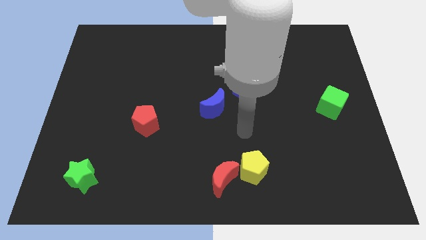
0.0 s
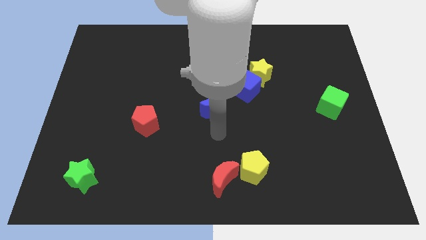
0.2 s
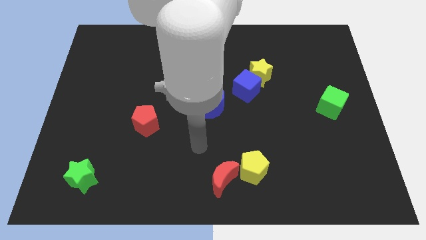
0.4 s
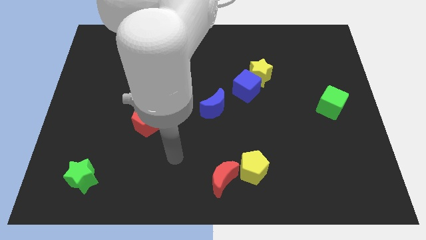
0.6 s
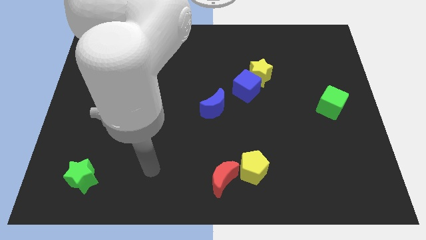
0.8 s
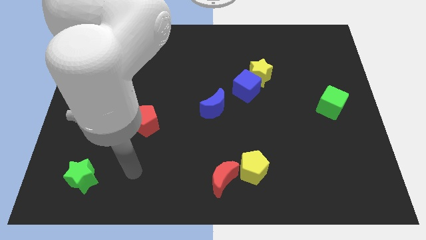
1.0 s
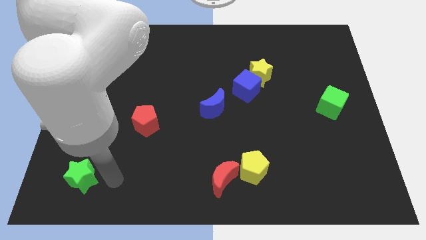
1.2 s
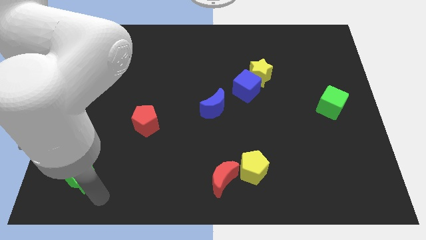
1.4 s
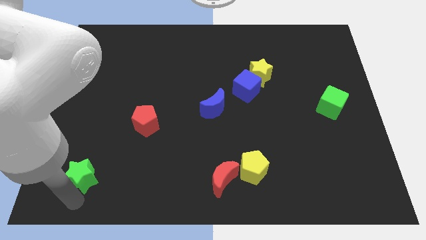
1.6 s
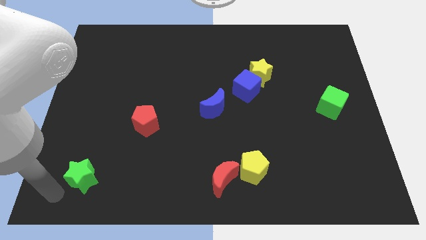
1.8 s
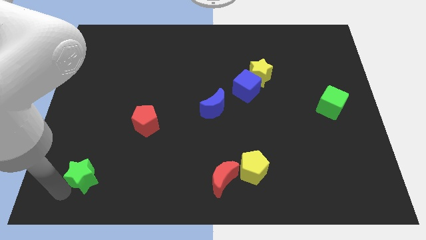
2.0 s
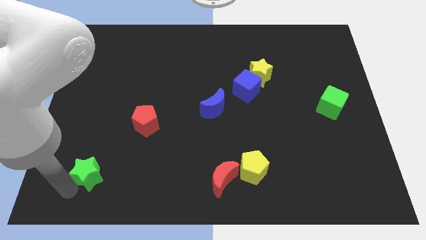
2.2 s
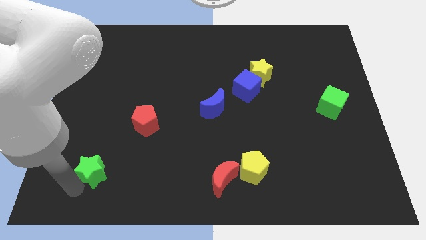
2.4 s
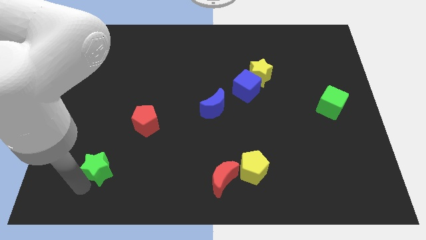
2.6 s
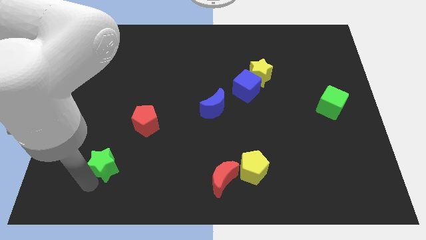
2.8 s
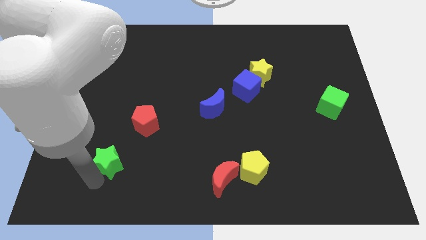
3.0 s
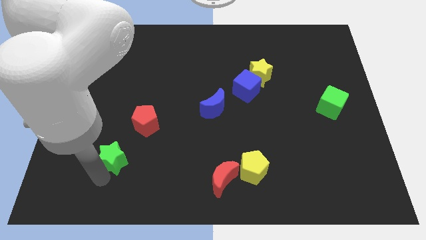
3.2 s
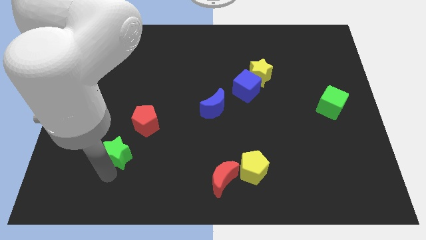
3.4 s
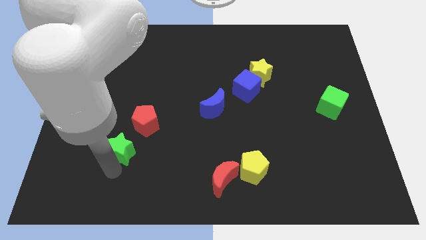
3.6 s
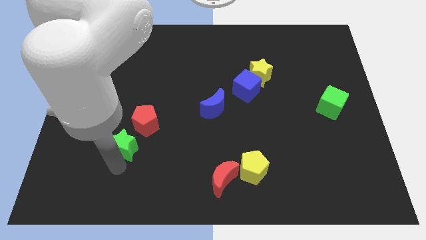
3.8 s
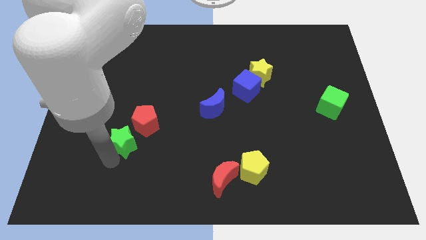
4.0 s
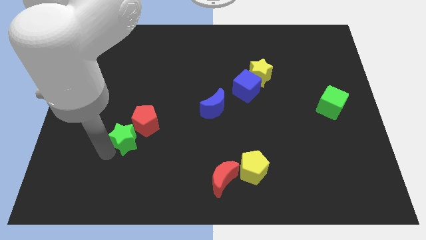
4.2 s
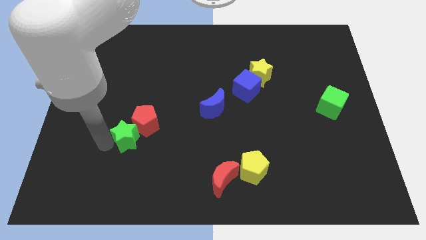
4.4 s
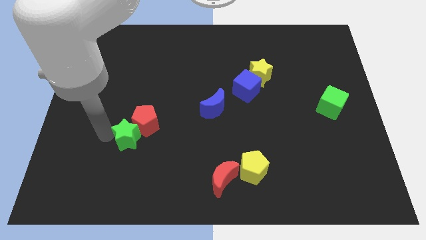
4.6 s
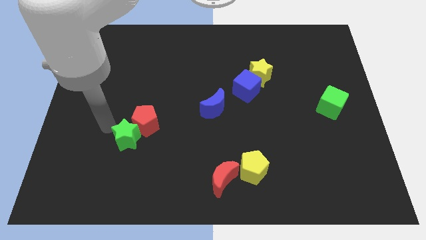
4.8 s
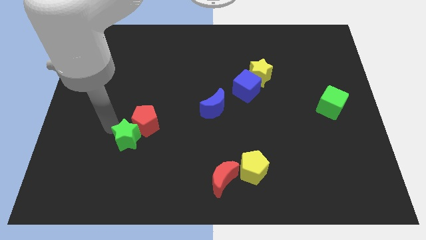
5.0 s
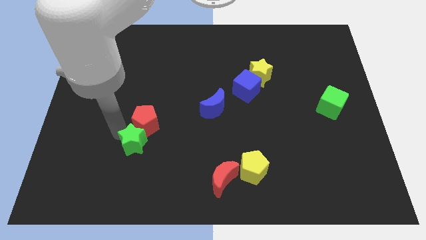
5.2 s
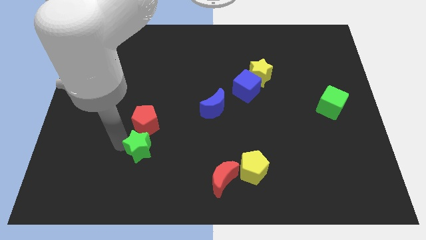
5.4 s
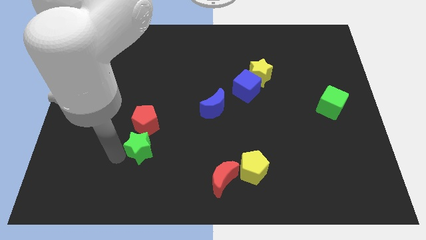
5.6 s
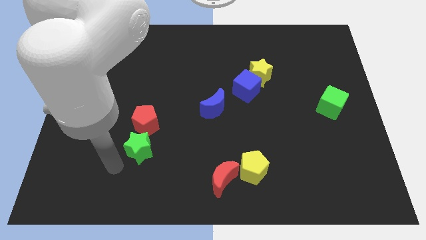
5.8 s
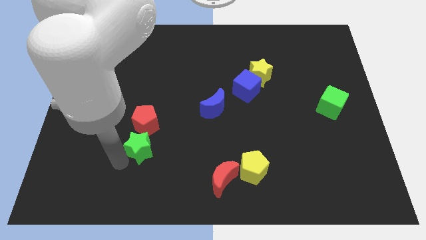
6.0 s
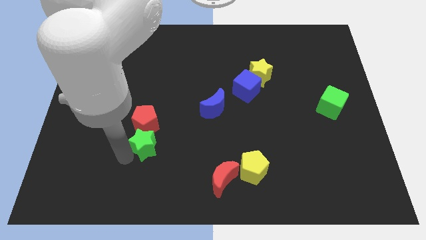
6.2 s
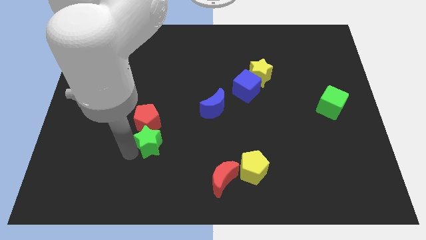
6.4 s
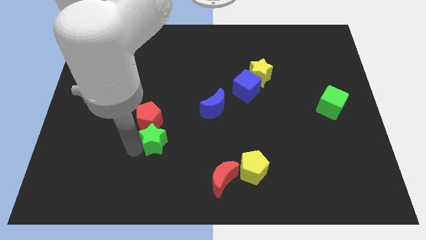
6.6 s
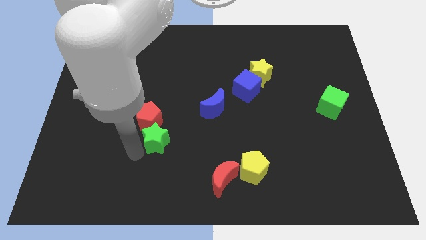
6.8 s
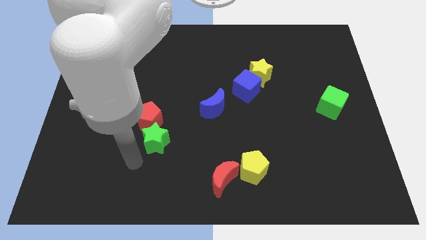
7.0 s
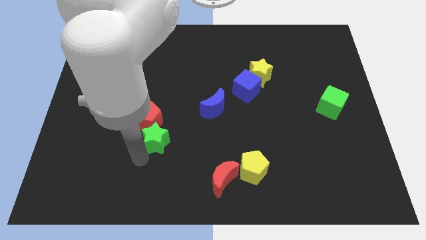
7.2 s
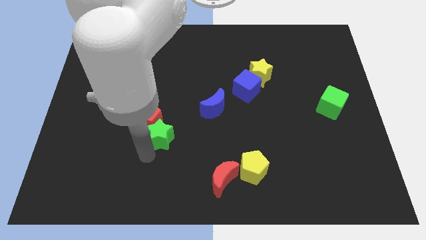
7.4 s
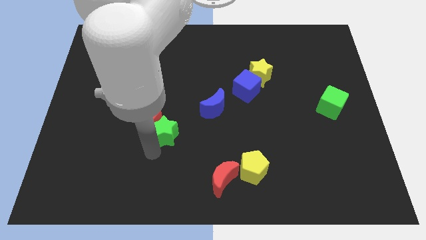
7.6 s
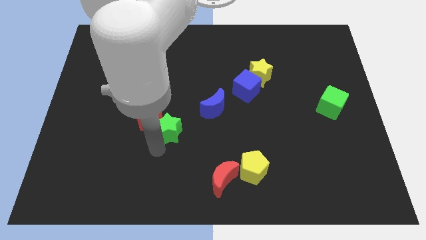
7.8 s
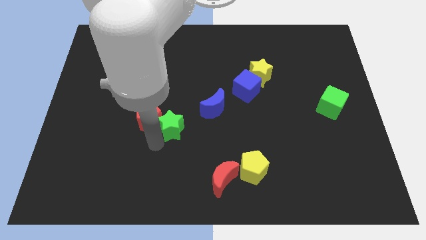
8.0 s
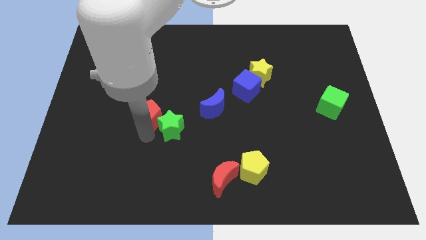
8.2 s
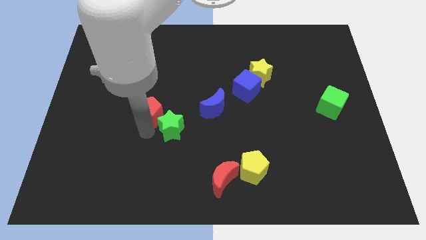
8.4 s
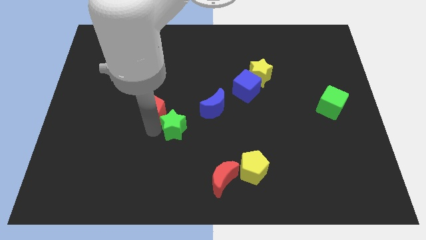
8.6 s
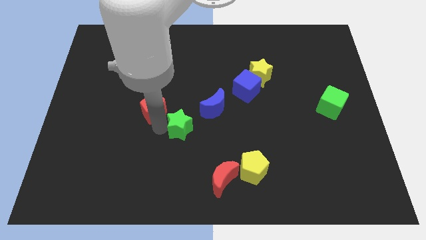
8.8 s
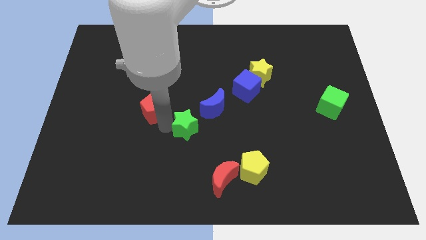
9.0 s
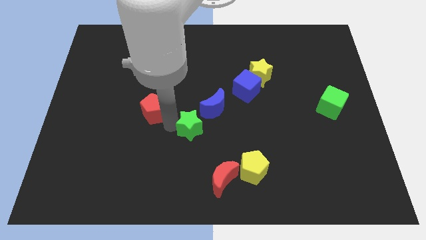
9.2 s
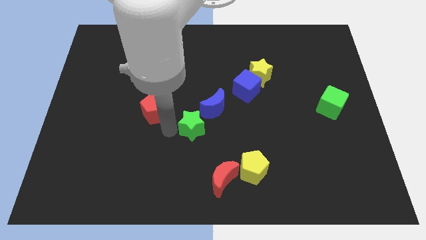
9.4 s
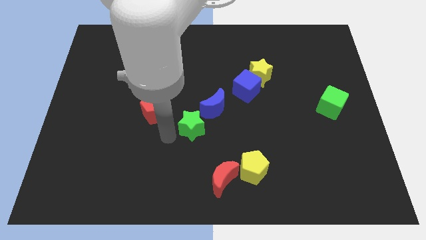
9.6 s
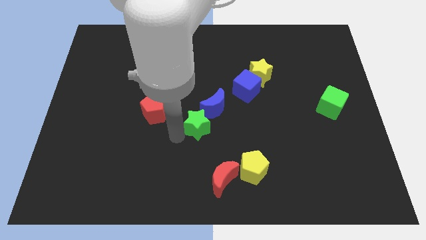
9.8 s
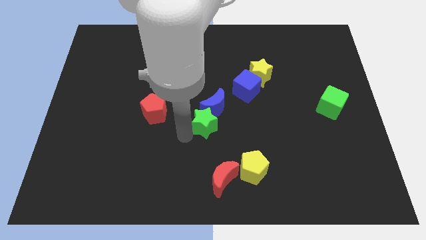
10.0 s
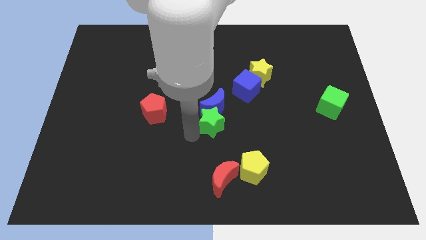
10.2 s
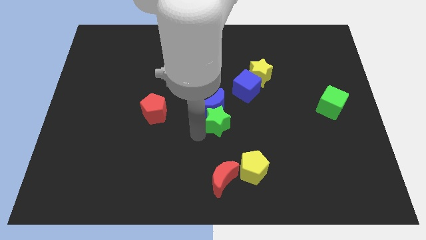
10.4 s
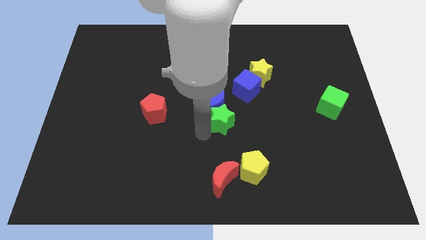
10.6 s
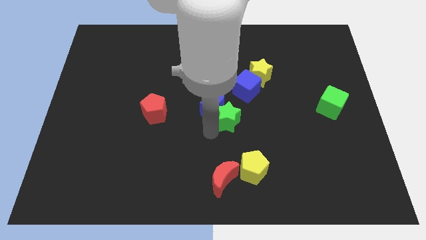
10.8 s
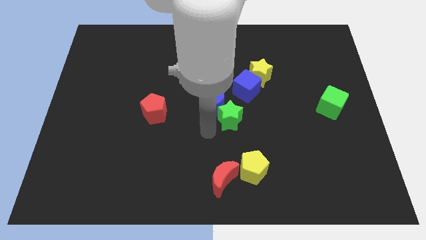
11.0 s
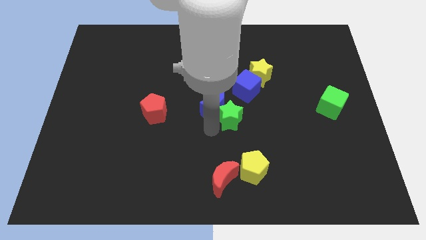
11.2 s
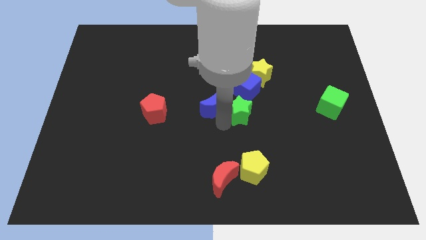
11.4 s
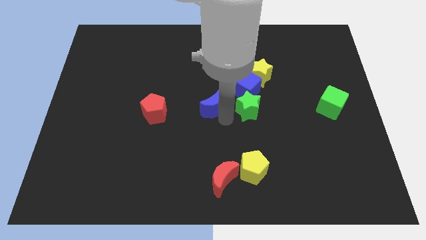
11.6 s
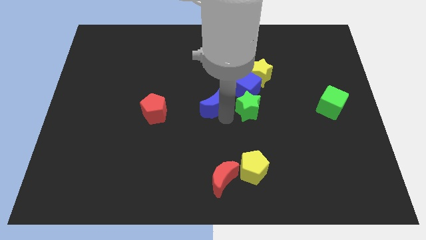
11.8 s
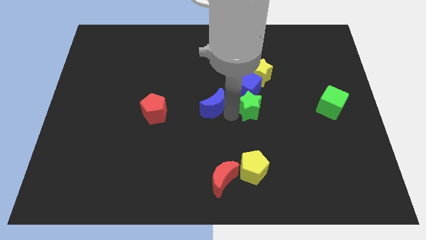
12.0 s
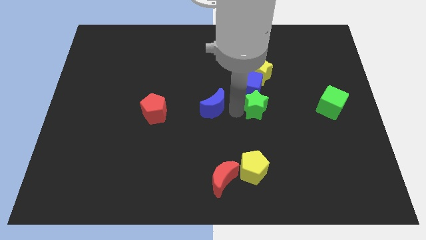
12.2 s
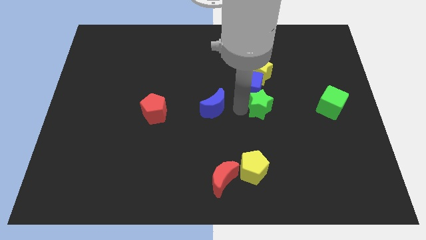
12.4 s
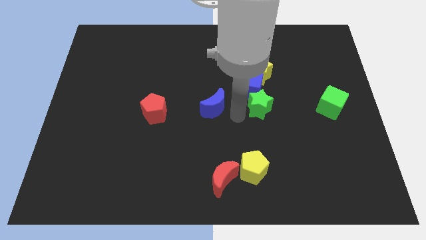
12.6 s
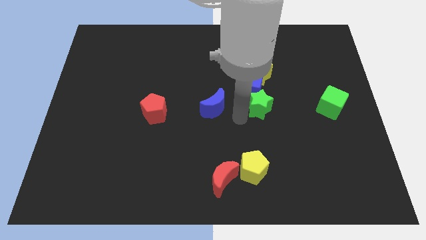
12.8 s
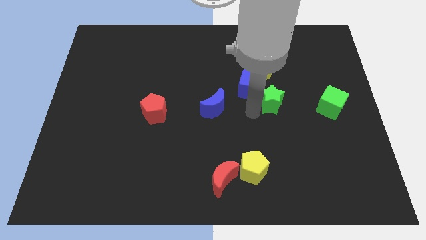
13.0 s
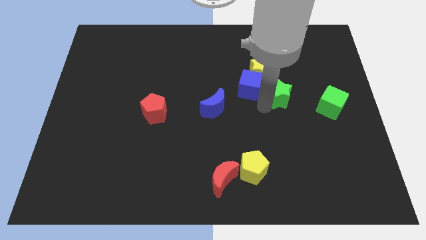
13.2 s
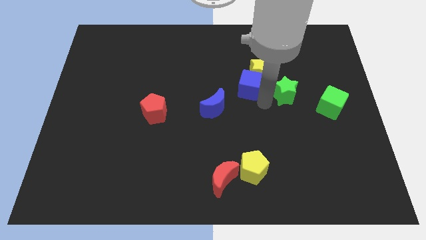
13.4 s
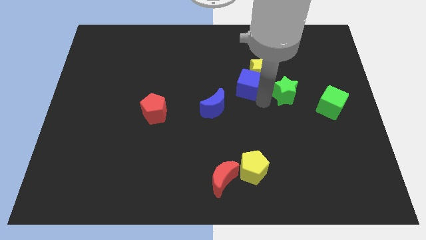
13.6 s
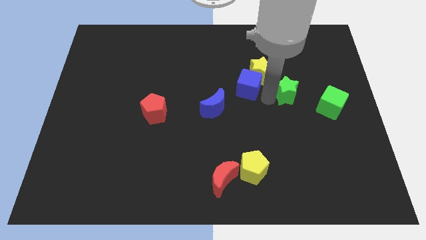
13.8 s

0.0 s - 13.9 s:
move the green star to the top left of the green cube

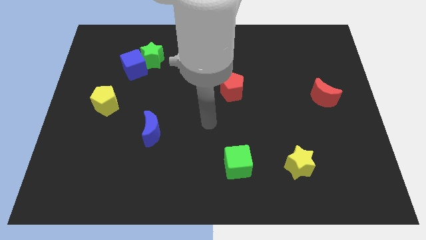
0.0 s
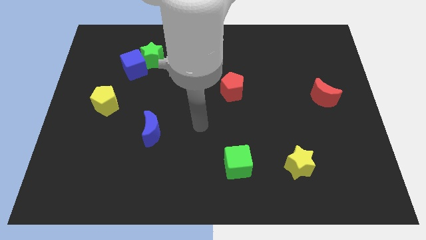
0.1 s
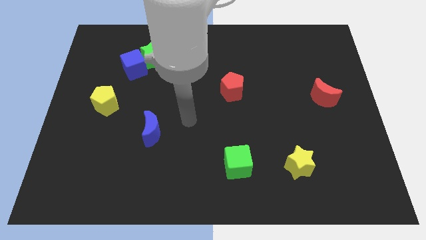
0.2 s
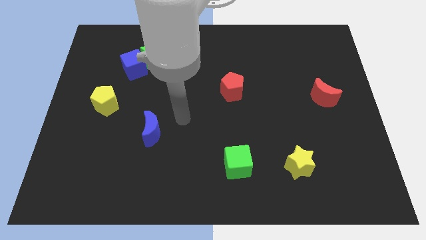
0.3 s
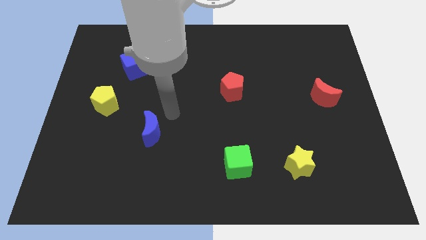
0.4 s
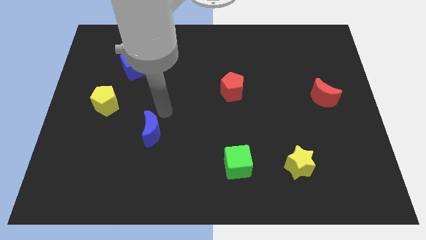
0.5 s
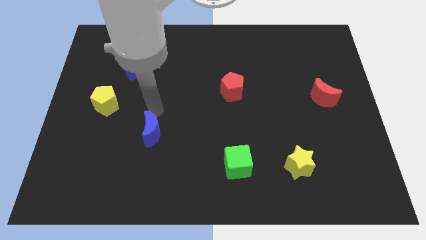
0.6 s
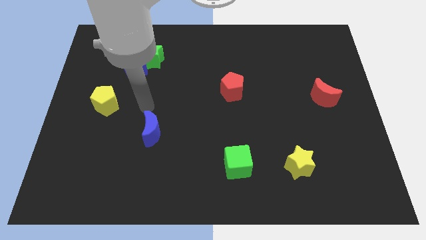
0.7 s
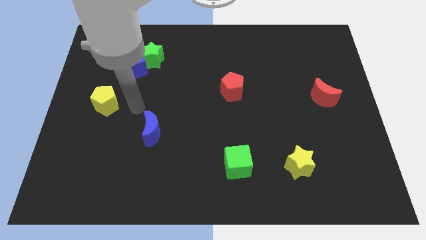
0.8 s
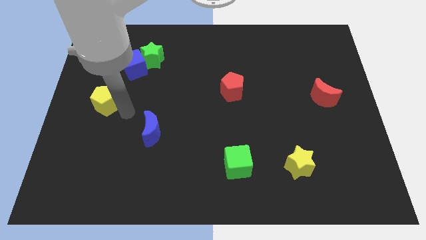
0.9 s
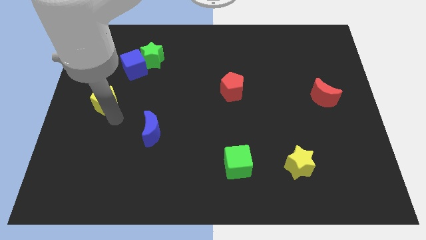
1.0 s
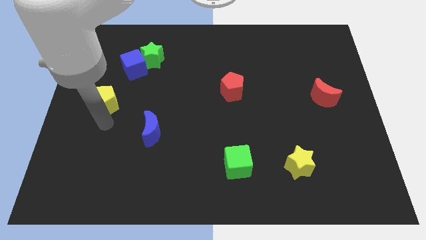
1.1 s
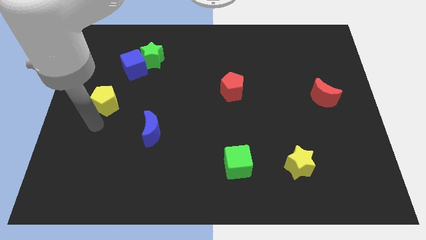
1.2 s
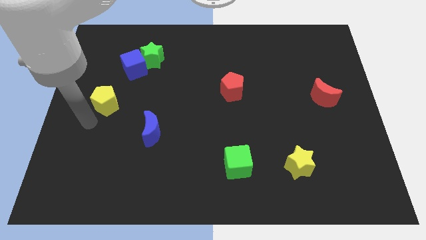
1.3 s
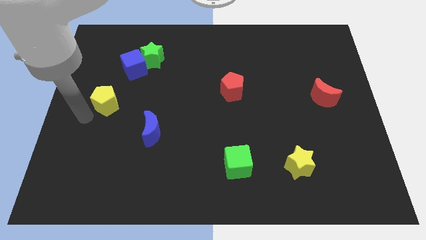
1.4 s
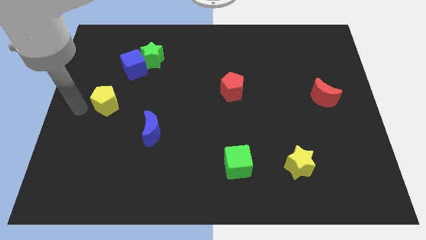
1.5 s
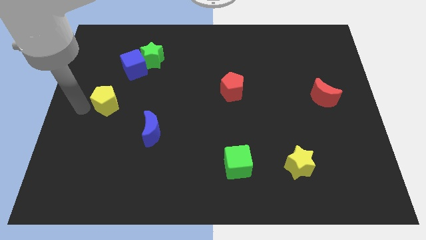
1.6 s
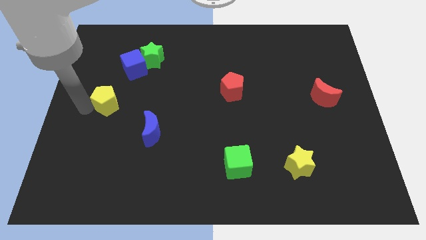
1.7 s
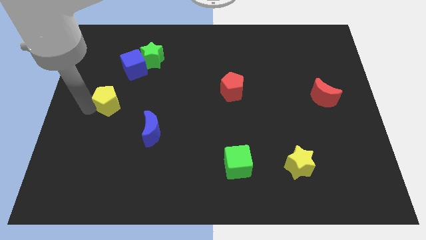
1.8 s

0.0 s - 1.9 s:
push the yellow pentagon below the blue cube
